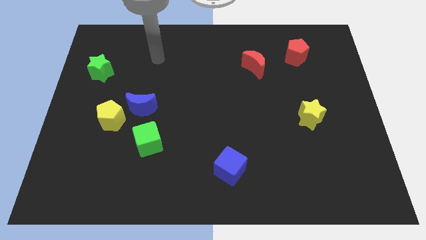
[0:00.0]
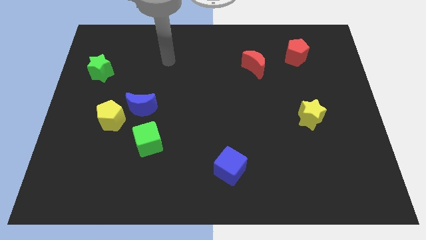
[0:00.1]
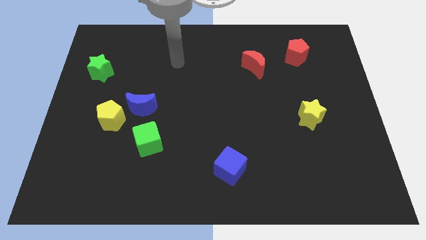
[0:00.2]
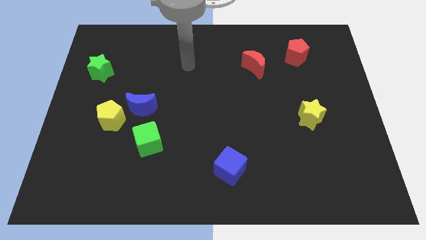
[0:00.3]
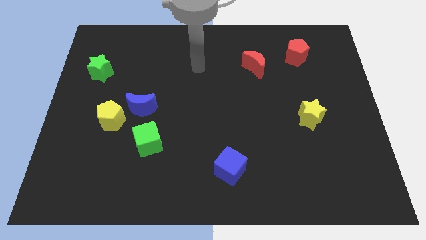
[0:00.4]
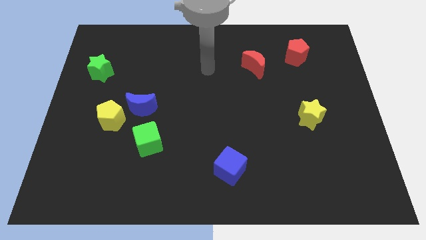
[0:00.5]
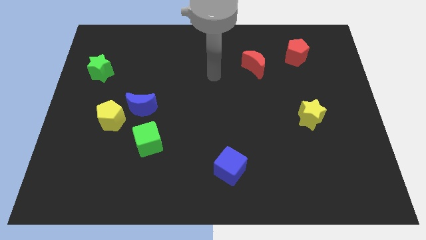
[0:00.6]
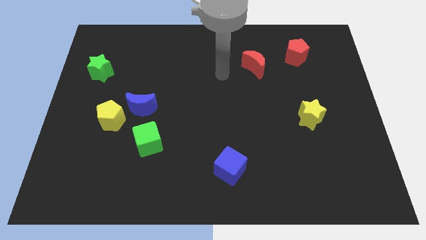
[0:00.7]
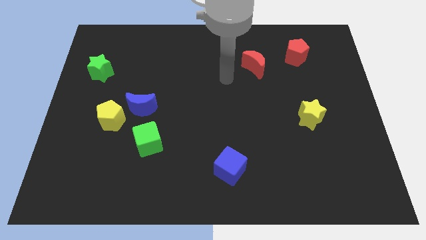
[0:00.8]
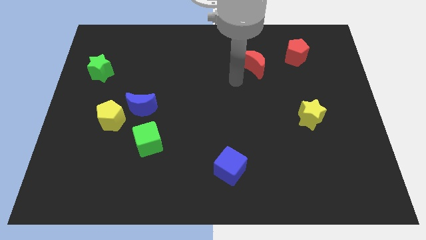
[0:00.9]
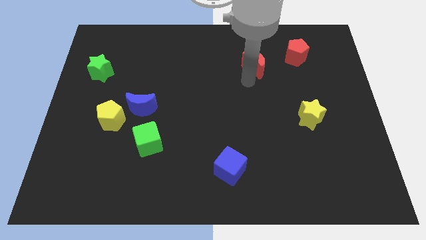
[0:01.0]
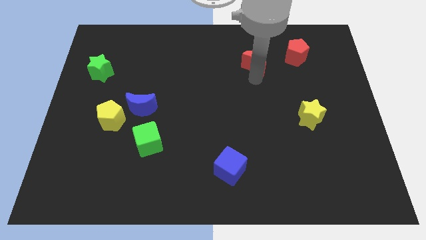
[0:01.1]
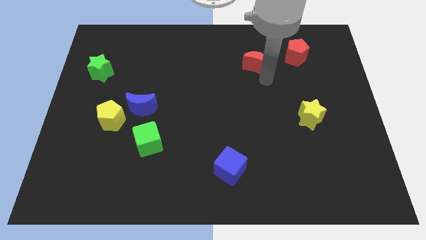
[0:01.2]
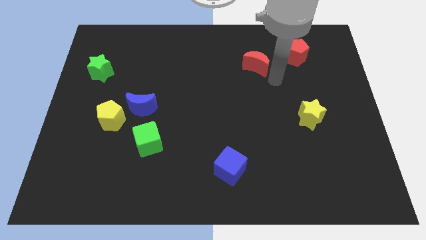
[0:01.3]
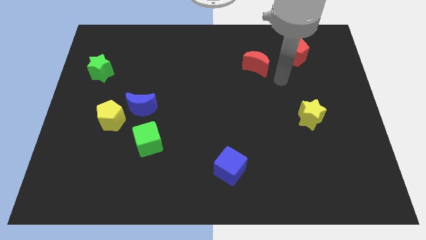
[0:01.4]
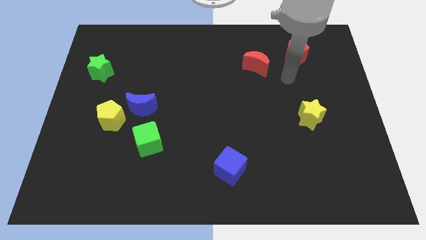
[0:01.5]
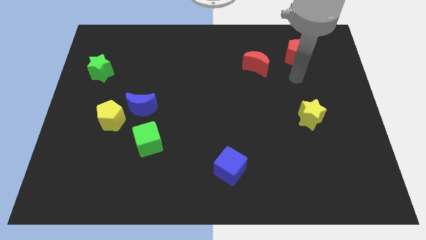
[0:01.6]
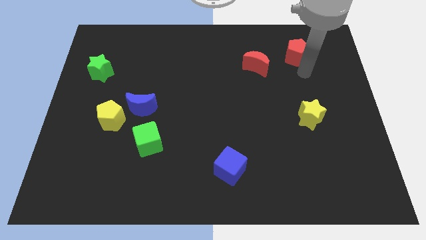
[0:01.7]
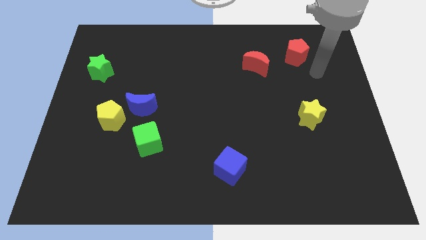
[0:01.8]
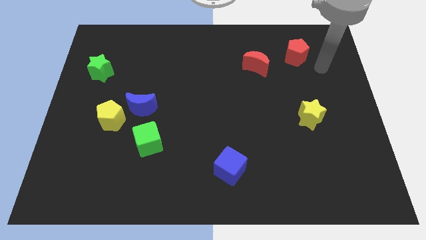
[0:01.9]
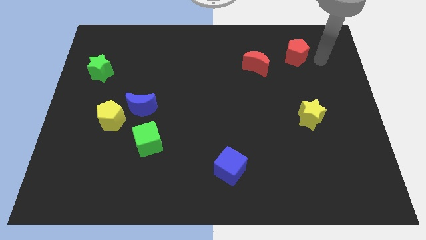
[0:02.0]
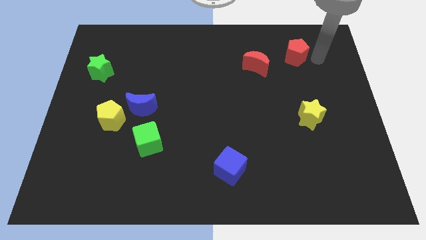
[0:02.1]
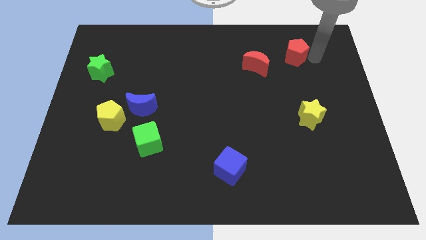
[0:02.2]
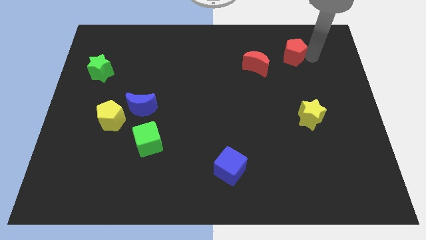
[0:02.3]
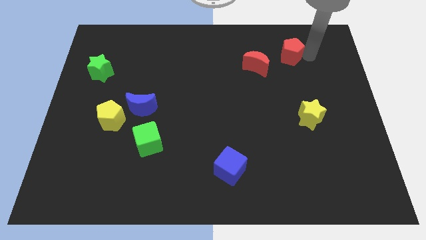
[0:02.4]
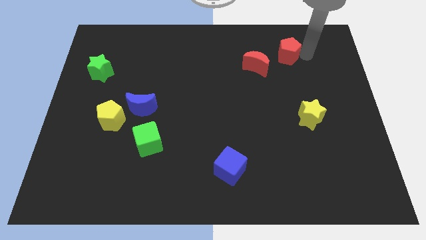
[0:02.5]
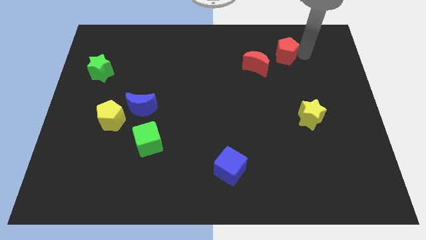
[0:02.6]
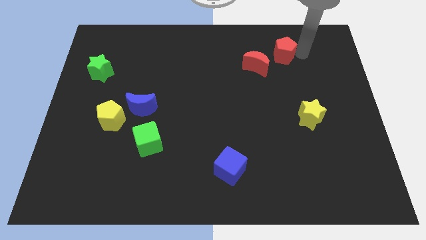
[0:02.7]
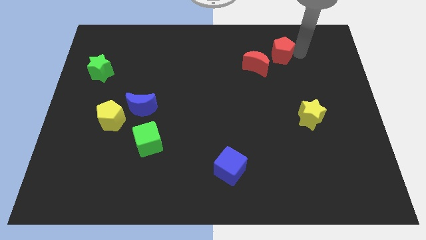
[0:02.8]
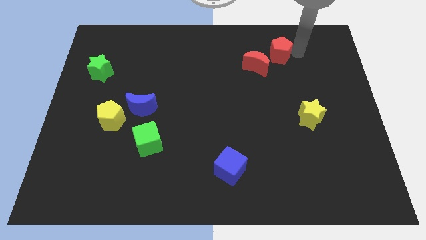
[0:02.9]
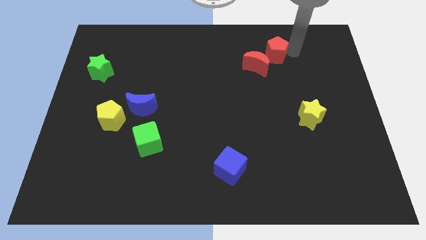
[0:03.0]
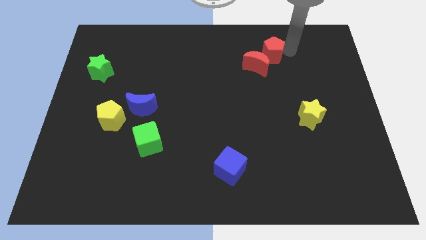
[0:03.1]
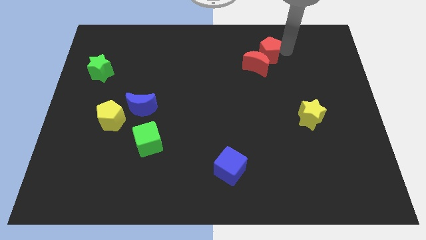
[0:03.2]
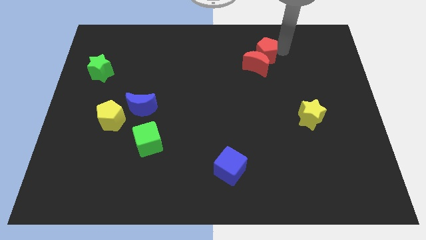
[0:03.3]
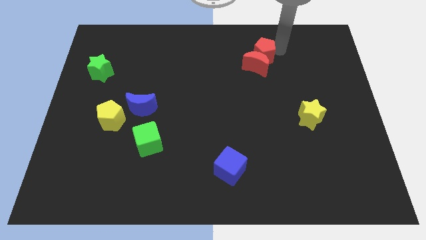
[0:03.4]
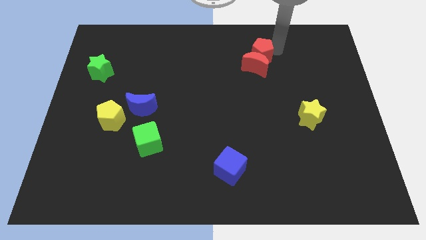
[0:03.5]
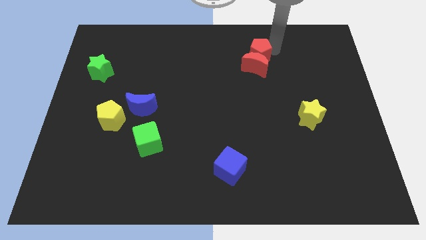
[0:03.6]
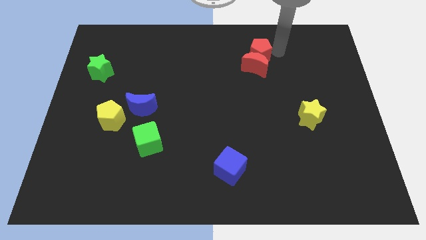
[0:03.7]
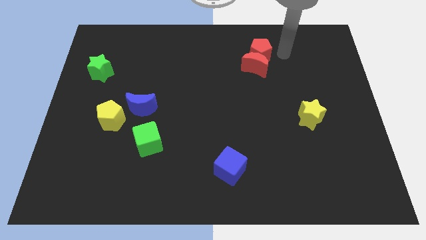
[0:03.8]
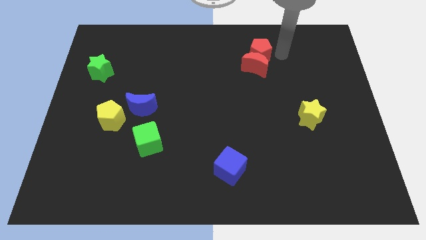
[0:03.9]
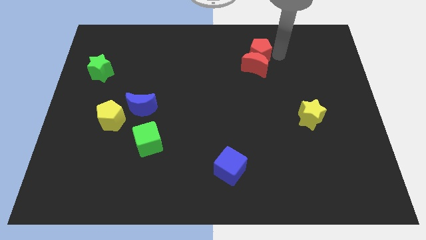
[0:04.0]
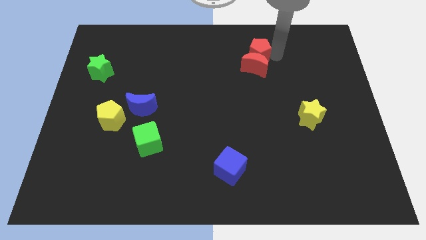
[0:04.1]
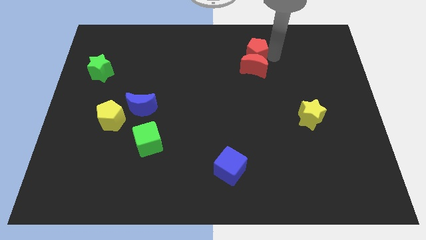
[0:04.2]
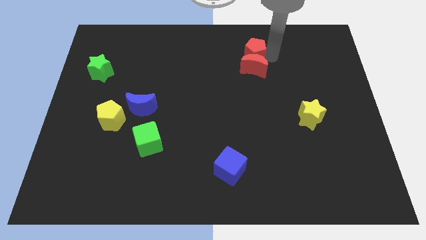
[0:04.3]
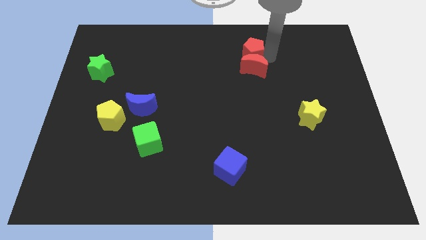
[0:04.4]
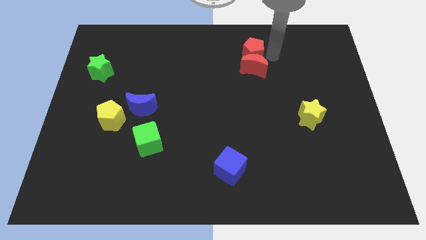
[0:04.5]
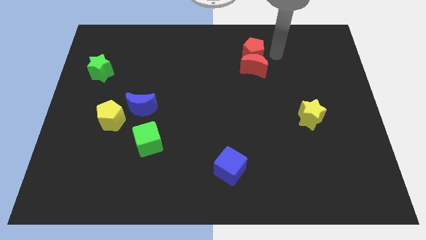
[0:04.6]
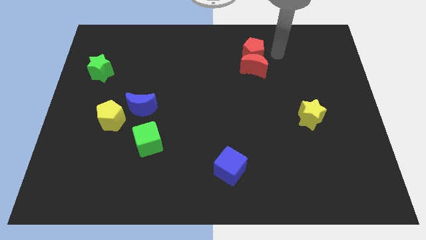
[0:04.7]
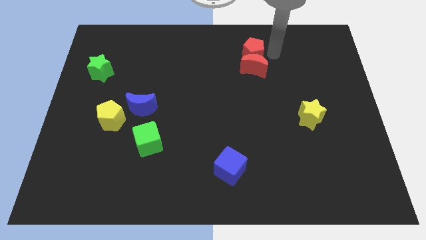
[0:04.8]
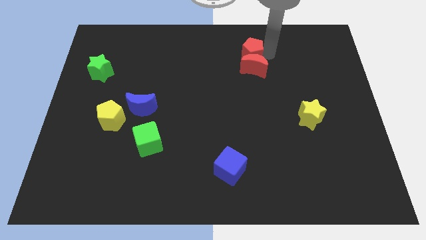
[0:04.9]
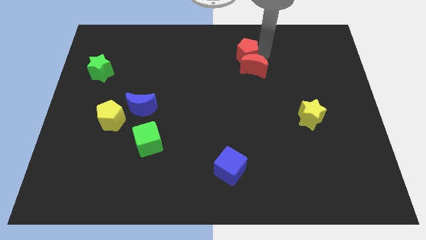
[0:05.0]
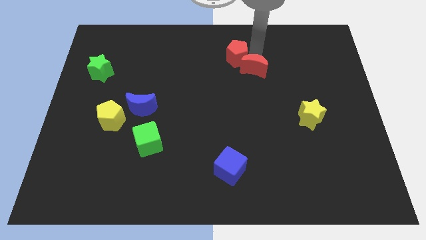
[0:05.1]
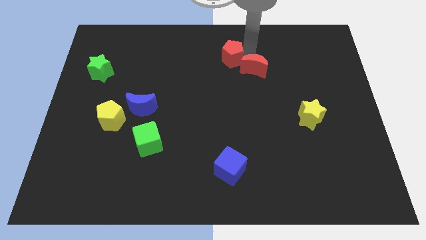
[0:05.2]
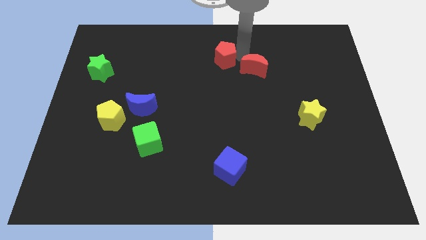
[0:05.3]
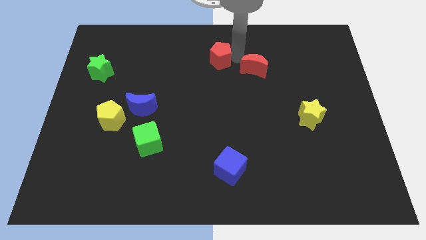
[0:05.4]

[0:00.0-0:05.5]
push the red pentagon left

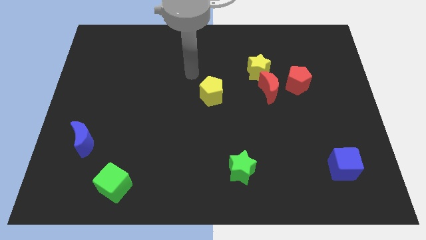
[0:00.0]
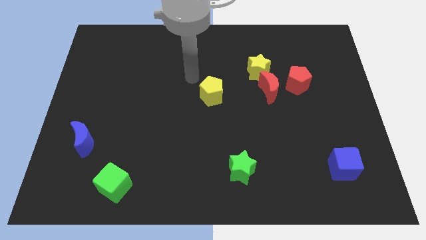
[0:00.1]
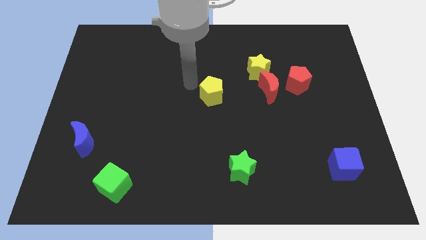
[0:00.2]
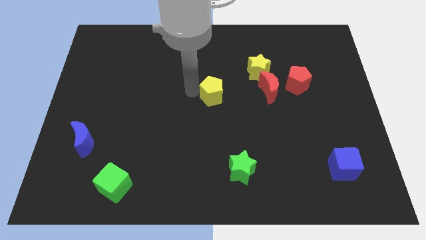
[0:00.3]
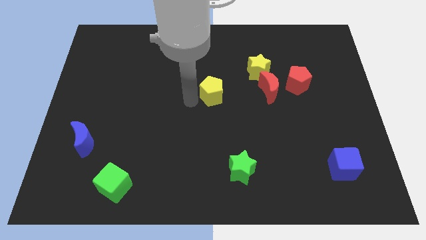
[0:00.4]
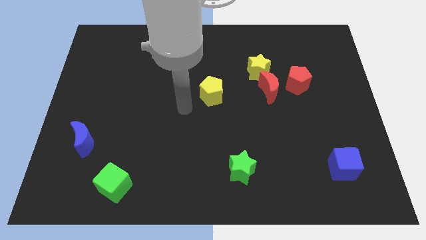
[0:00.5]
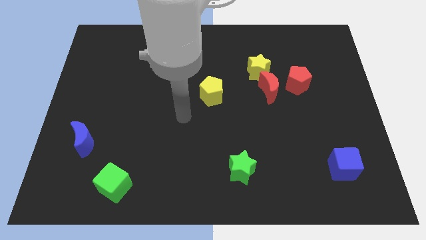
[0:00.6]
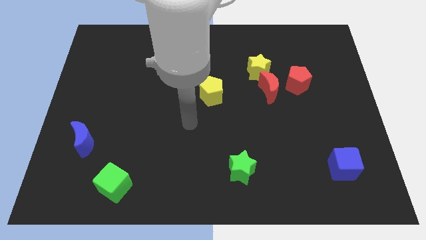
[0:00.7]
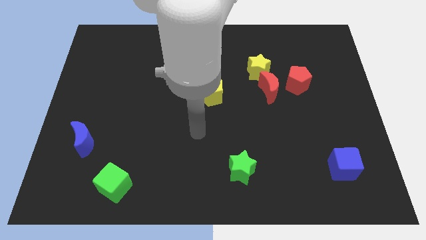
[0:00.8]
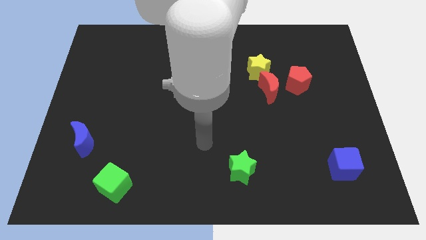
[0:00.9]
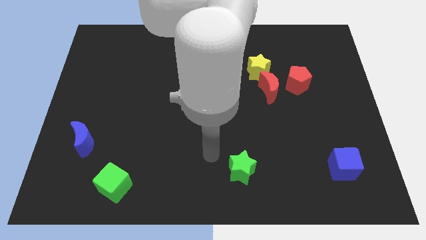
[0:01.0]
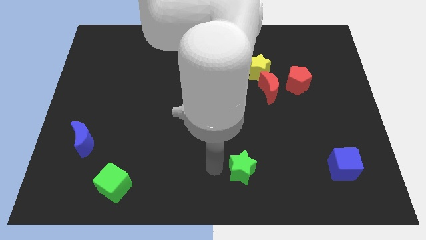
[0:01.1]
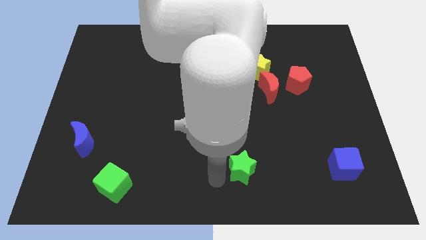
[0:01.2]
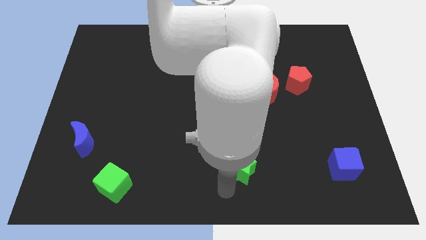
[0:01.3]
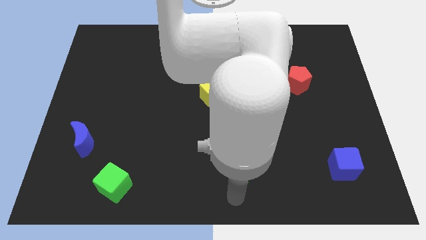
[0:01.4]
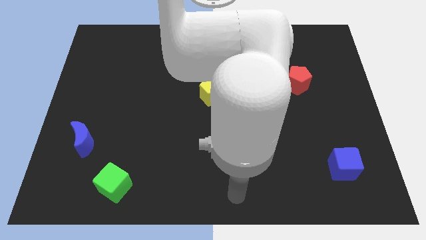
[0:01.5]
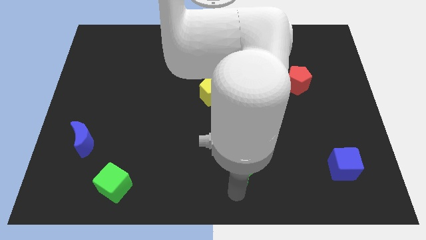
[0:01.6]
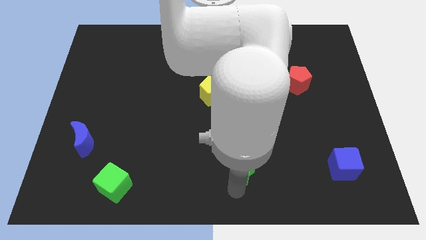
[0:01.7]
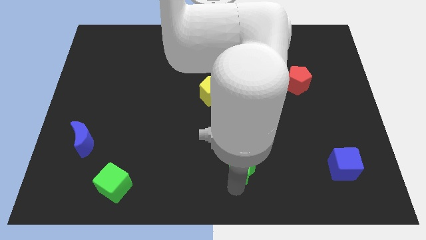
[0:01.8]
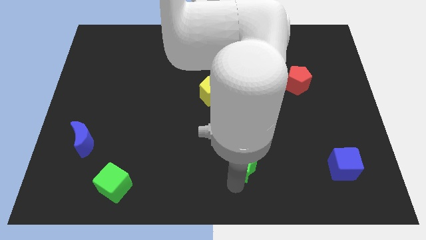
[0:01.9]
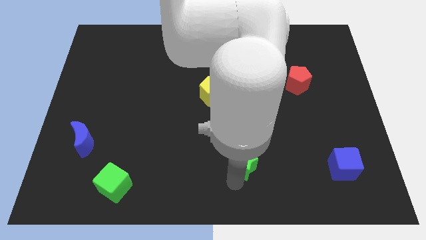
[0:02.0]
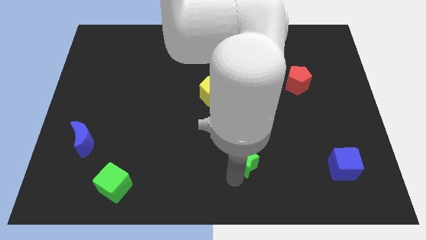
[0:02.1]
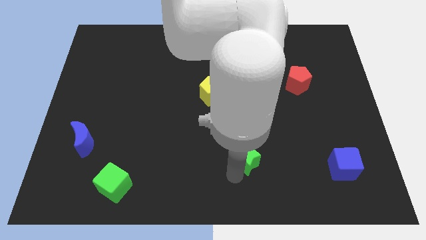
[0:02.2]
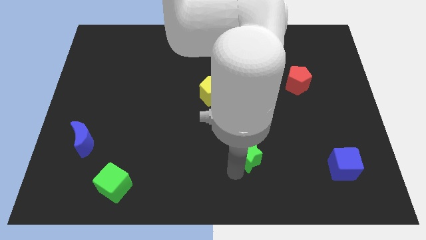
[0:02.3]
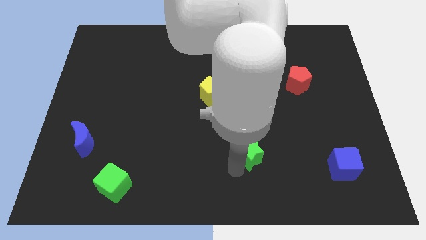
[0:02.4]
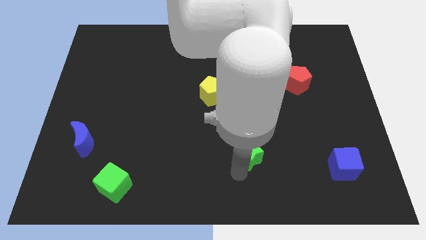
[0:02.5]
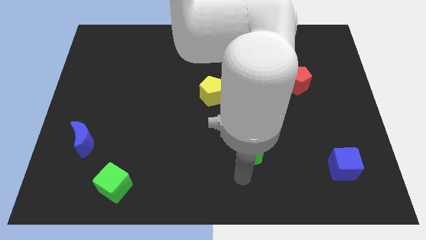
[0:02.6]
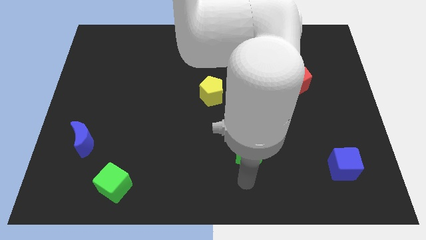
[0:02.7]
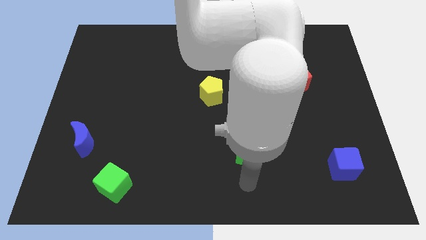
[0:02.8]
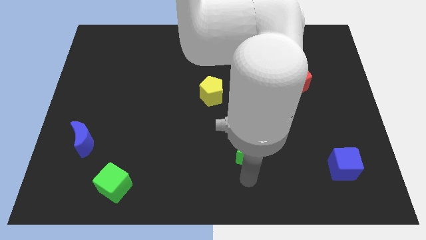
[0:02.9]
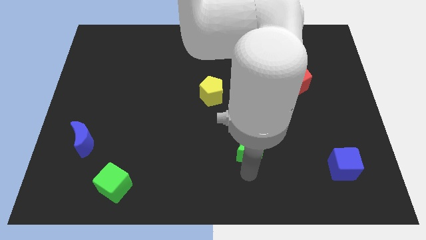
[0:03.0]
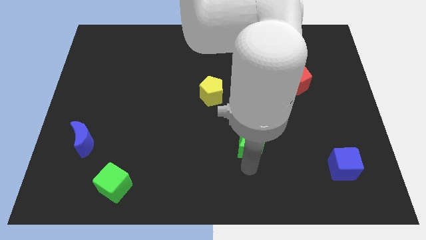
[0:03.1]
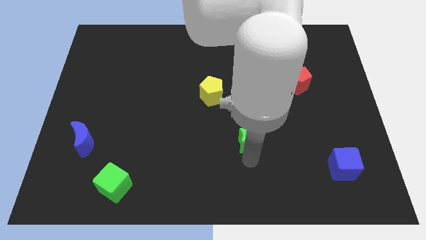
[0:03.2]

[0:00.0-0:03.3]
slide the green star upwards a little
